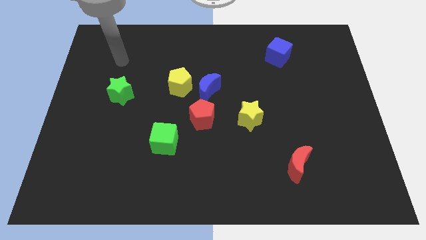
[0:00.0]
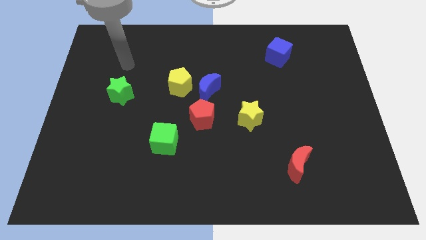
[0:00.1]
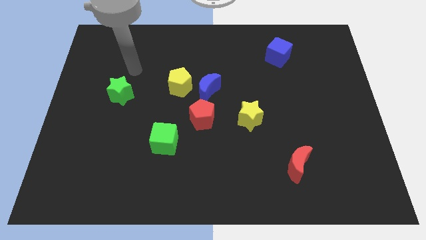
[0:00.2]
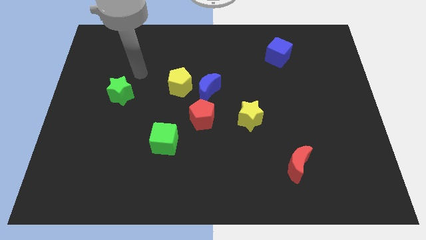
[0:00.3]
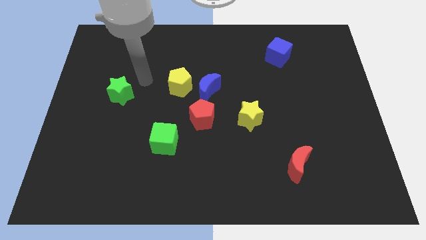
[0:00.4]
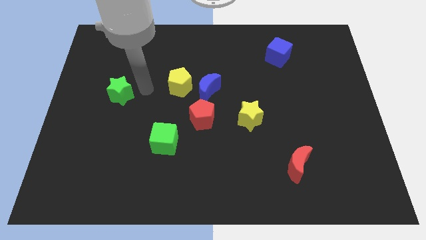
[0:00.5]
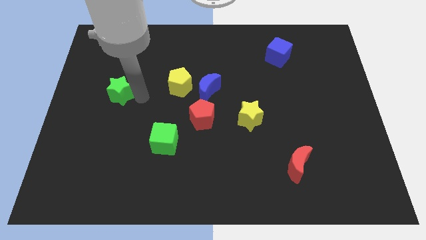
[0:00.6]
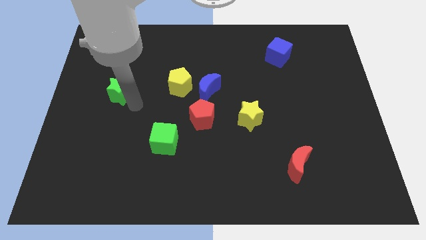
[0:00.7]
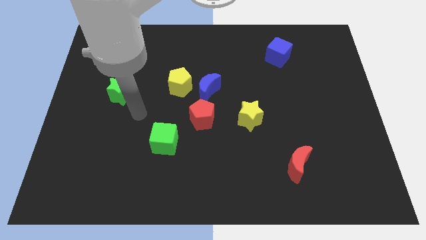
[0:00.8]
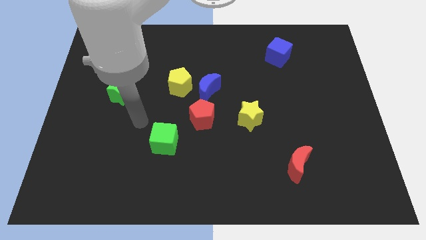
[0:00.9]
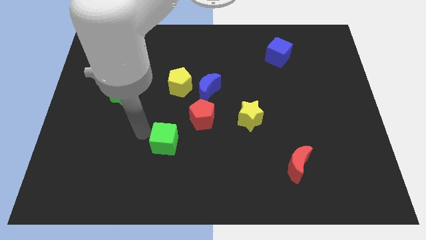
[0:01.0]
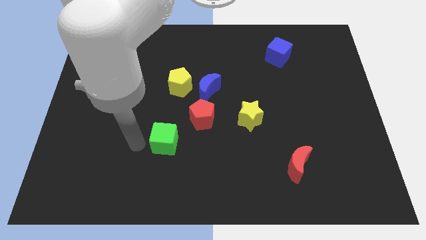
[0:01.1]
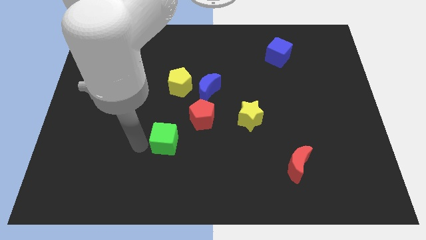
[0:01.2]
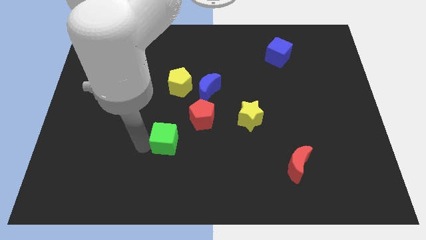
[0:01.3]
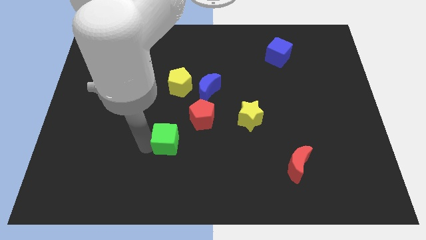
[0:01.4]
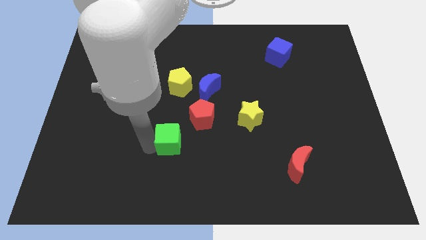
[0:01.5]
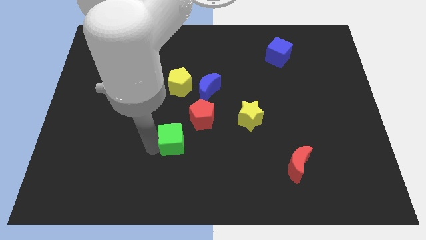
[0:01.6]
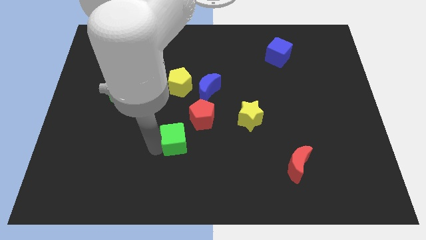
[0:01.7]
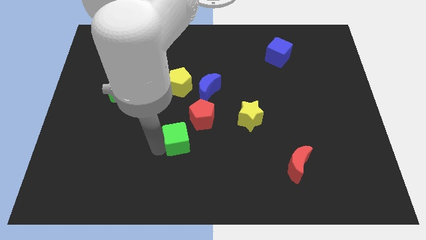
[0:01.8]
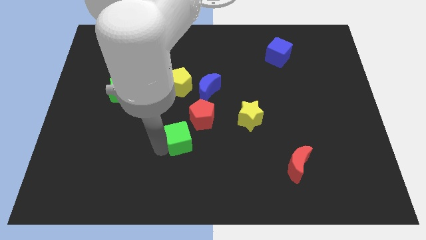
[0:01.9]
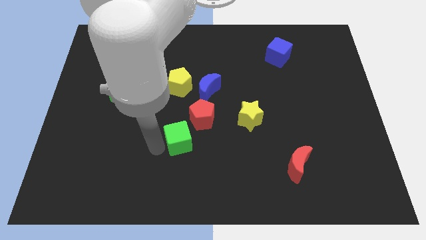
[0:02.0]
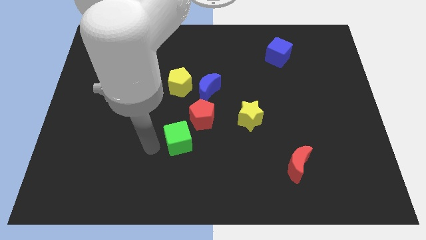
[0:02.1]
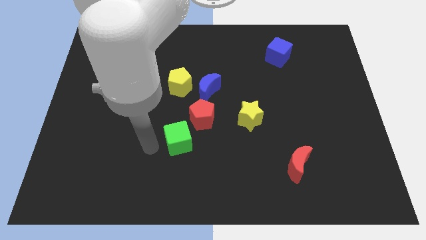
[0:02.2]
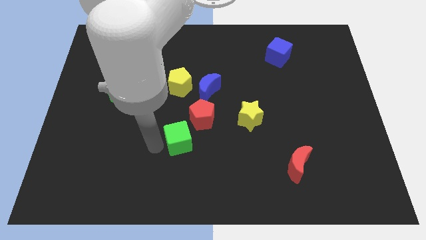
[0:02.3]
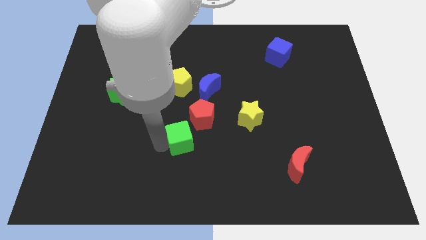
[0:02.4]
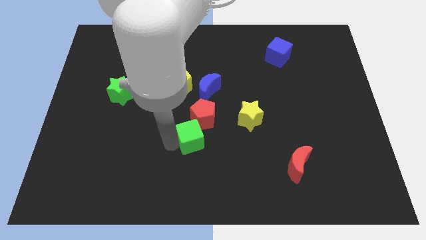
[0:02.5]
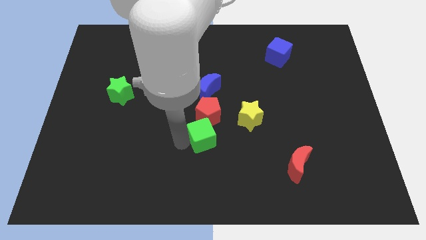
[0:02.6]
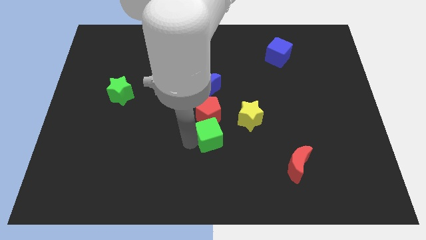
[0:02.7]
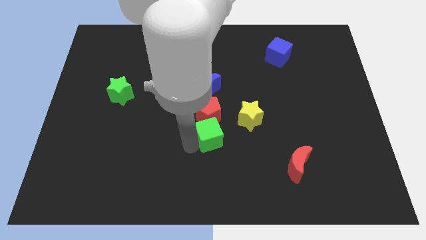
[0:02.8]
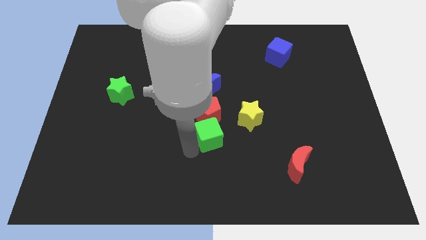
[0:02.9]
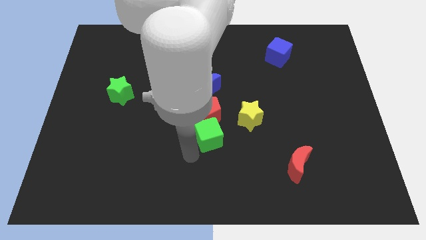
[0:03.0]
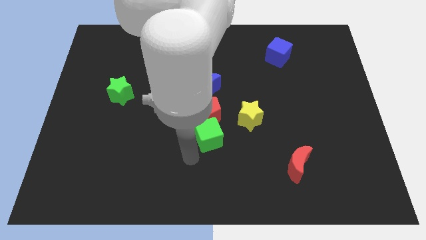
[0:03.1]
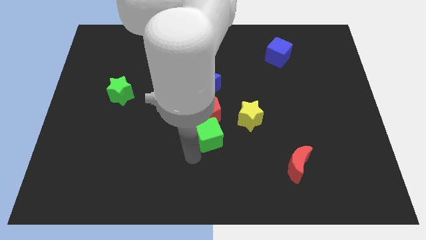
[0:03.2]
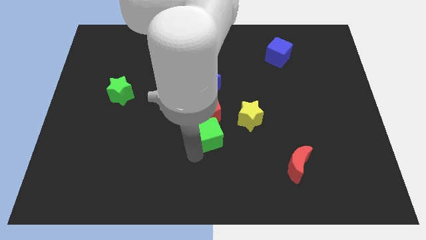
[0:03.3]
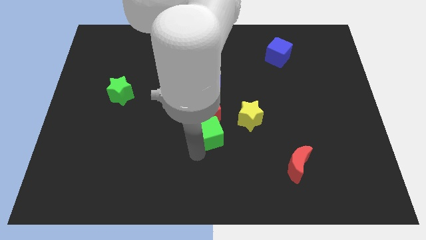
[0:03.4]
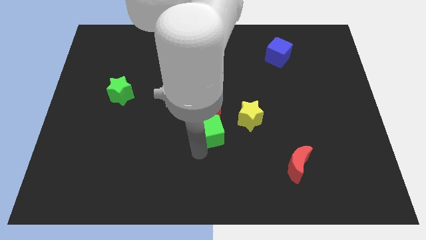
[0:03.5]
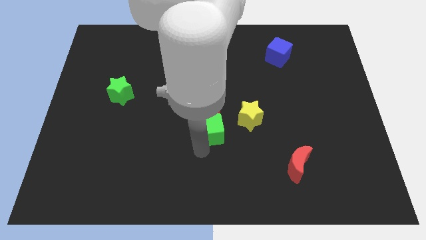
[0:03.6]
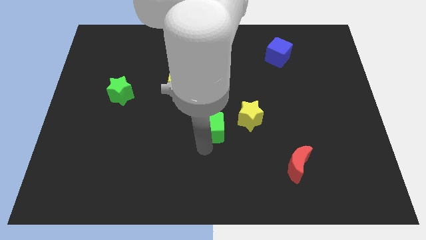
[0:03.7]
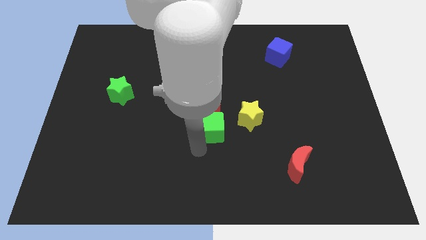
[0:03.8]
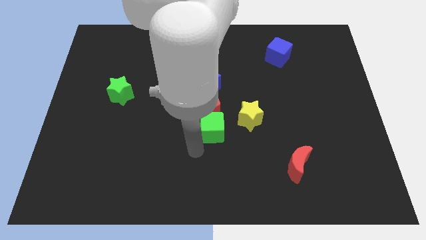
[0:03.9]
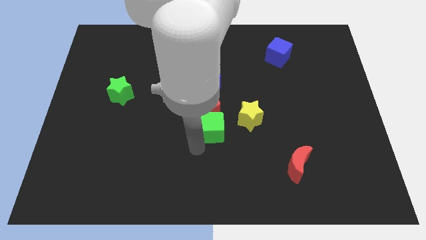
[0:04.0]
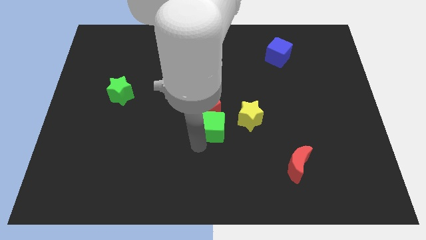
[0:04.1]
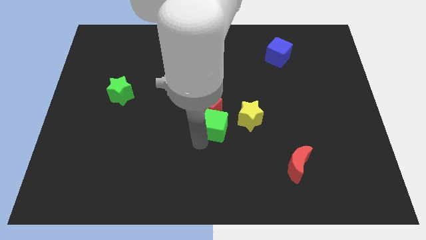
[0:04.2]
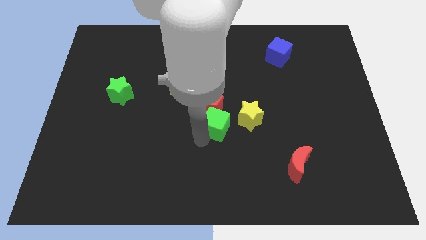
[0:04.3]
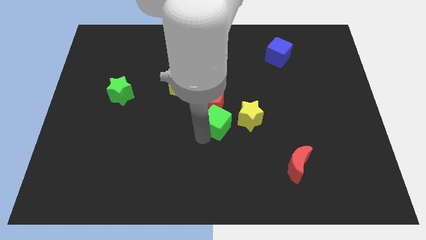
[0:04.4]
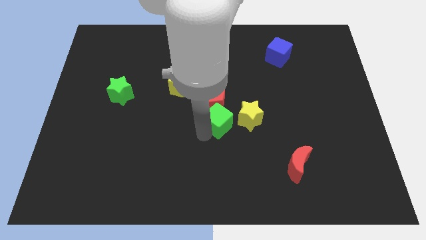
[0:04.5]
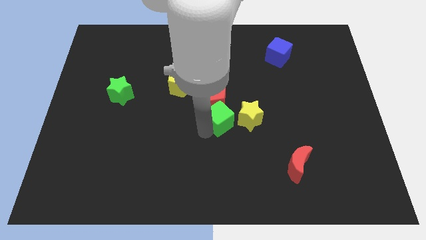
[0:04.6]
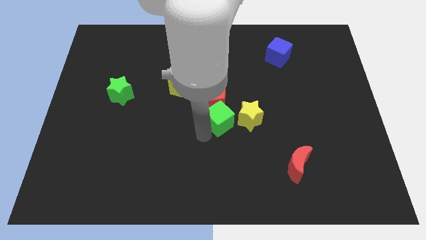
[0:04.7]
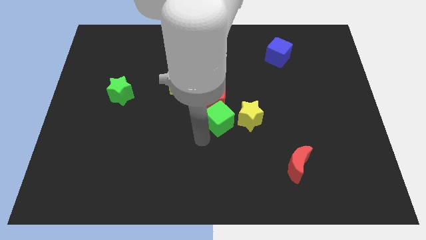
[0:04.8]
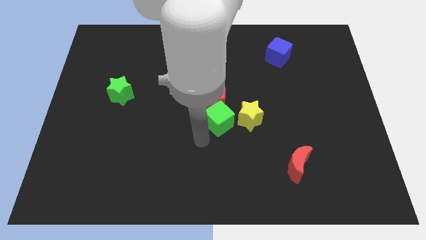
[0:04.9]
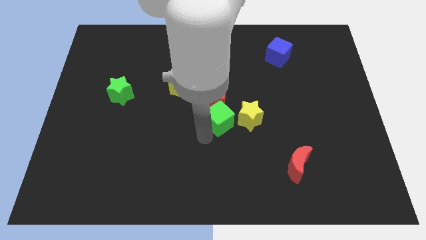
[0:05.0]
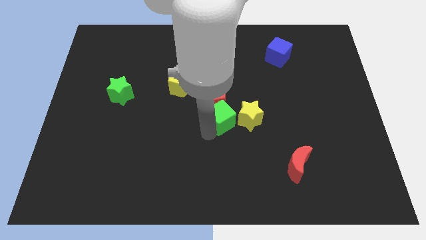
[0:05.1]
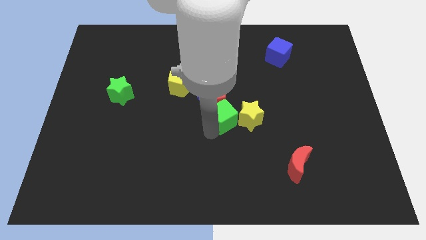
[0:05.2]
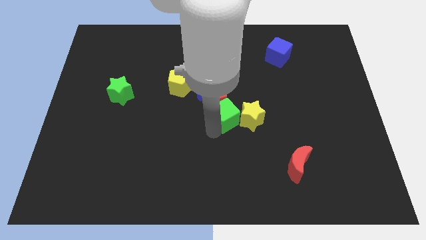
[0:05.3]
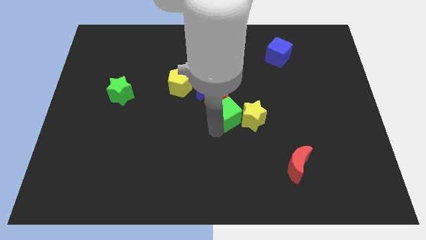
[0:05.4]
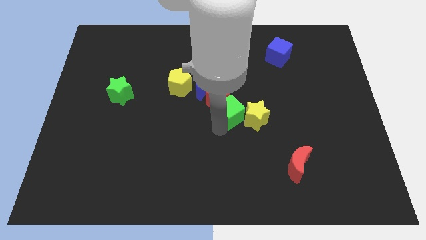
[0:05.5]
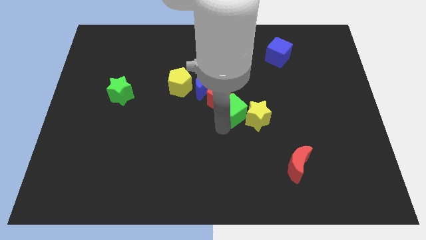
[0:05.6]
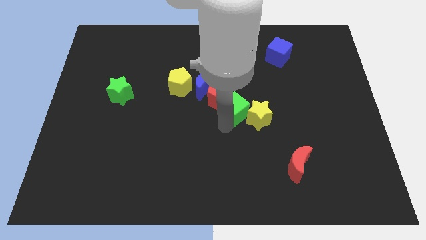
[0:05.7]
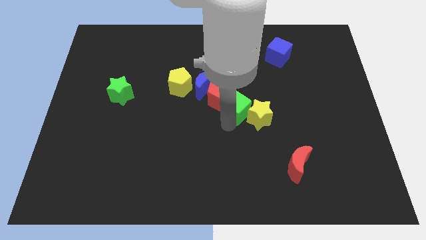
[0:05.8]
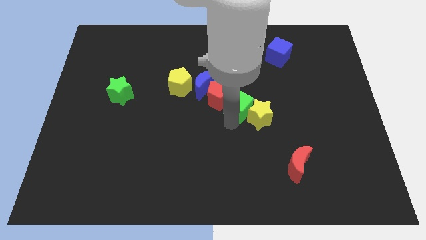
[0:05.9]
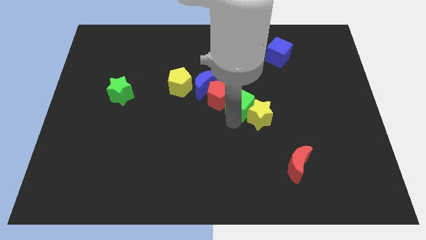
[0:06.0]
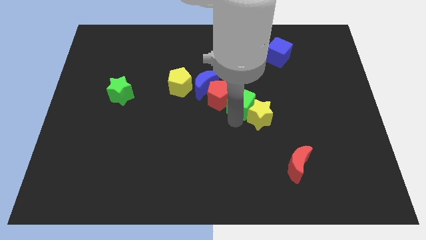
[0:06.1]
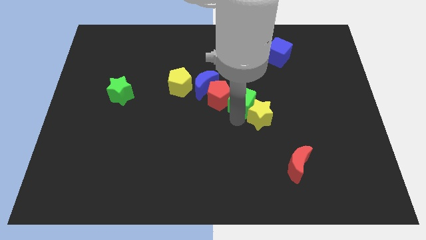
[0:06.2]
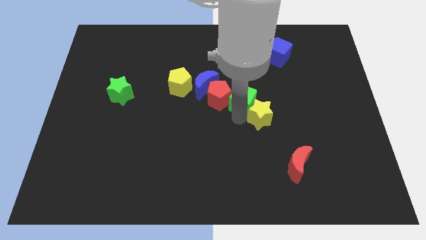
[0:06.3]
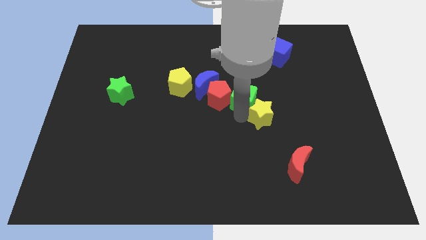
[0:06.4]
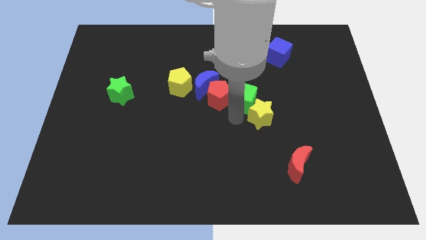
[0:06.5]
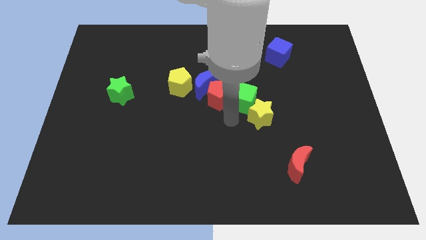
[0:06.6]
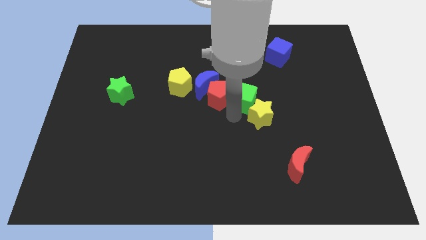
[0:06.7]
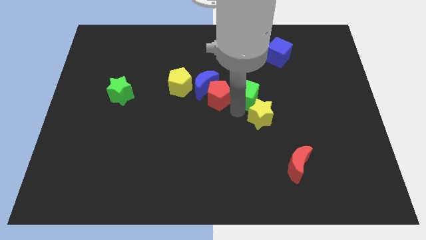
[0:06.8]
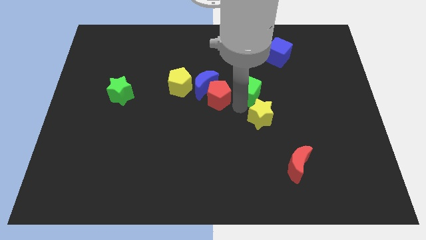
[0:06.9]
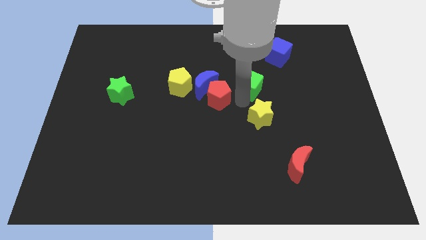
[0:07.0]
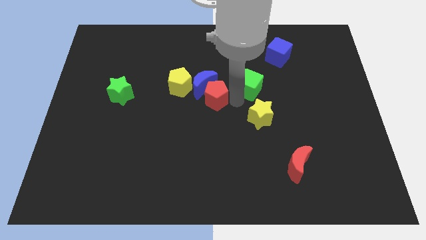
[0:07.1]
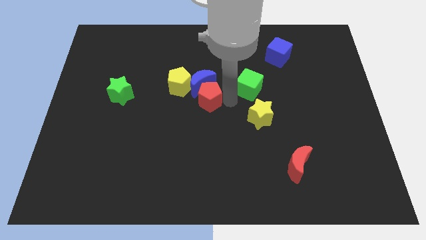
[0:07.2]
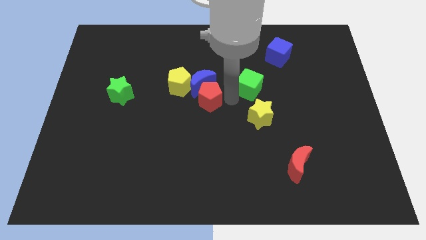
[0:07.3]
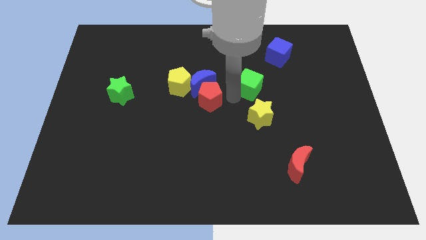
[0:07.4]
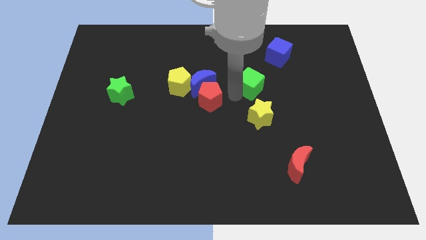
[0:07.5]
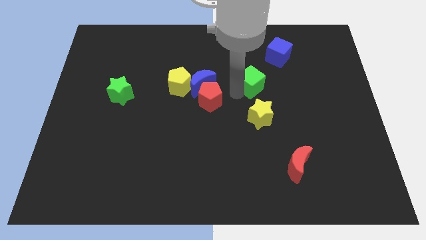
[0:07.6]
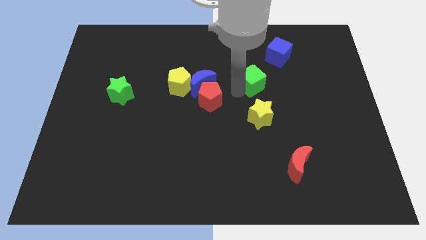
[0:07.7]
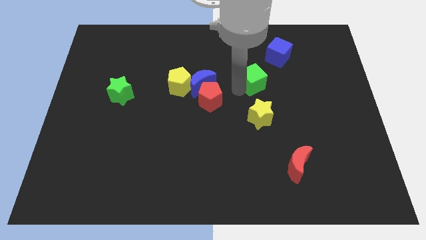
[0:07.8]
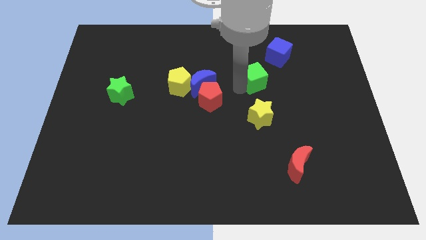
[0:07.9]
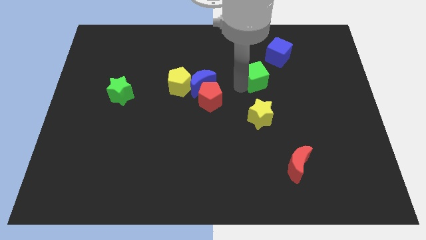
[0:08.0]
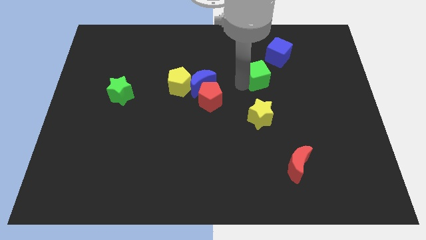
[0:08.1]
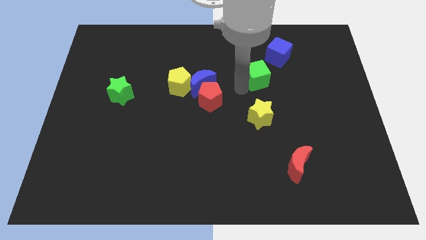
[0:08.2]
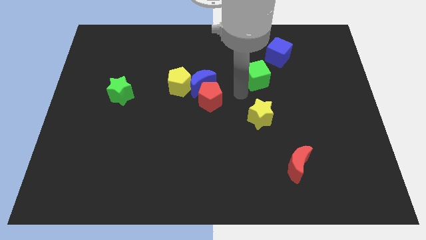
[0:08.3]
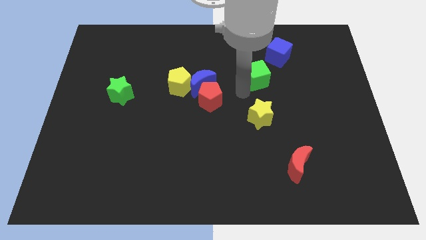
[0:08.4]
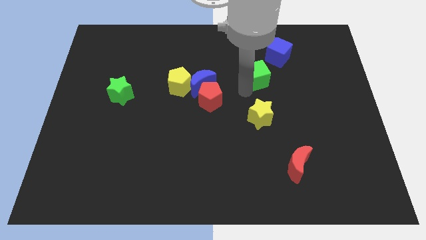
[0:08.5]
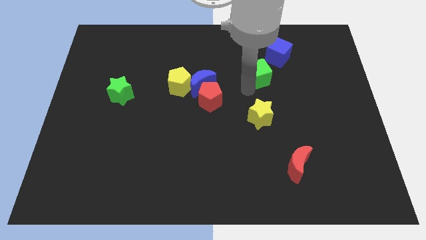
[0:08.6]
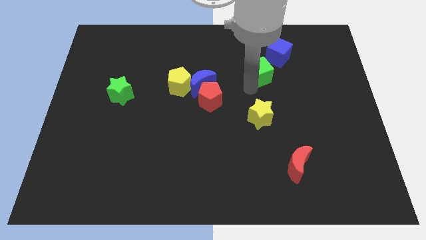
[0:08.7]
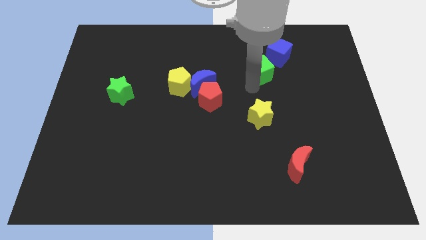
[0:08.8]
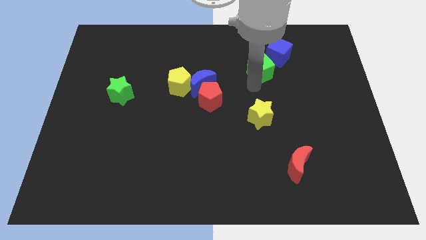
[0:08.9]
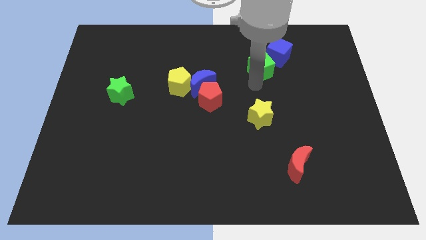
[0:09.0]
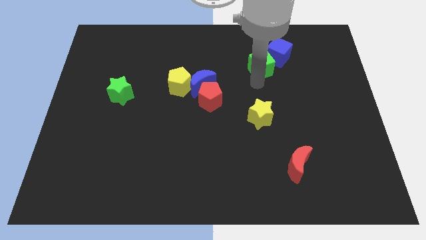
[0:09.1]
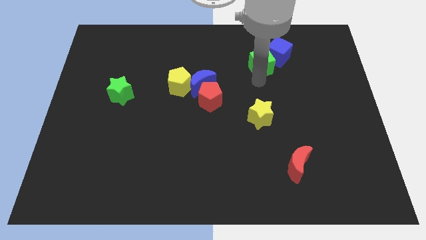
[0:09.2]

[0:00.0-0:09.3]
move the green cube next to the blue cube
